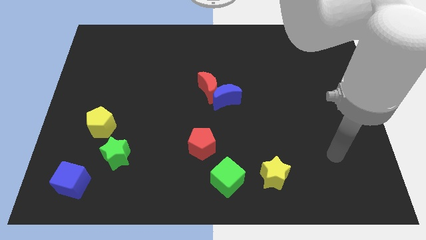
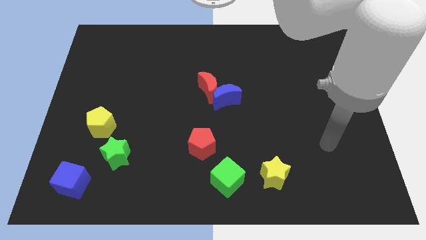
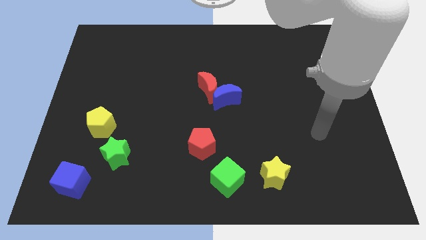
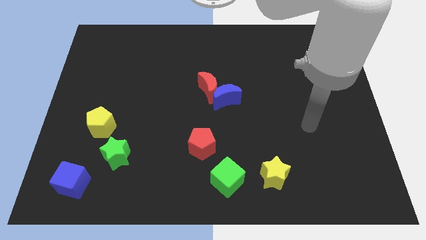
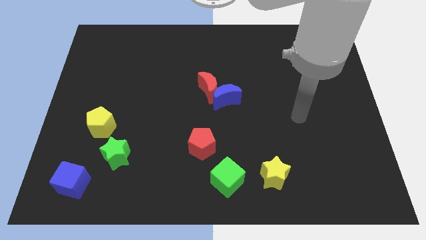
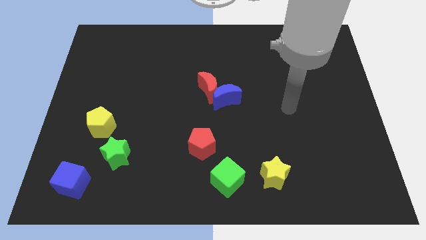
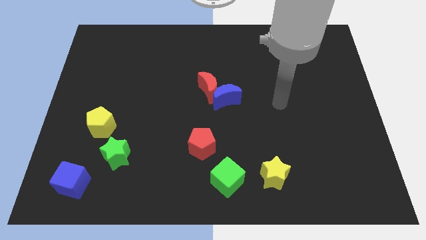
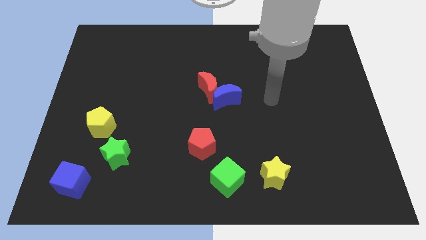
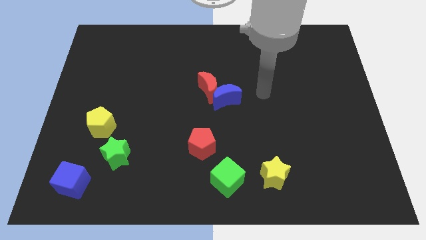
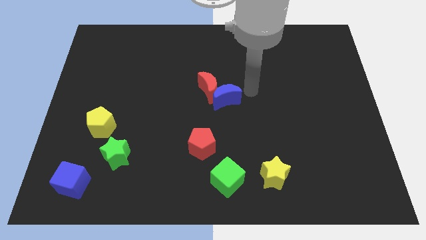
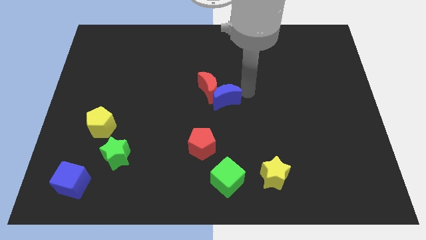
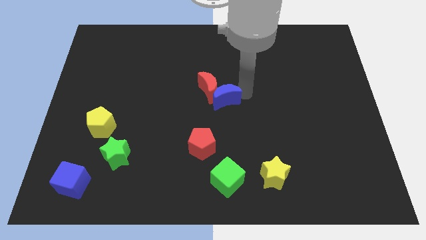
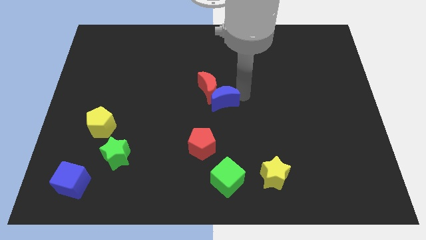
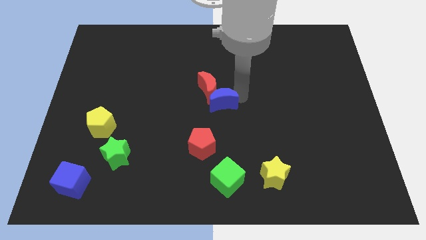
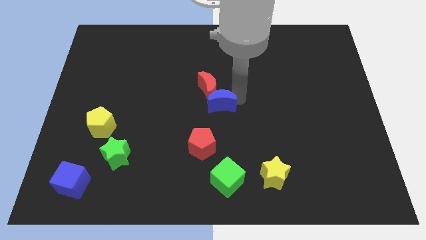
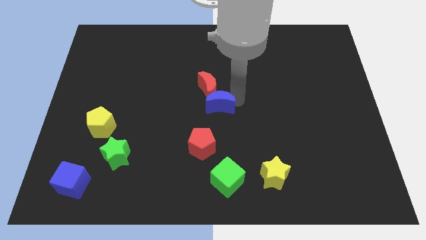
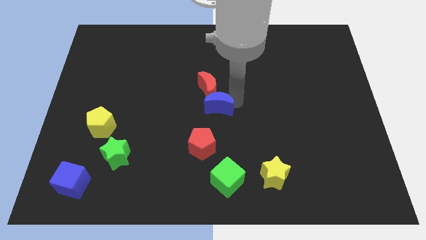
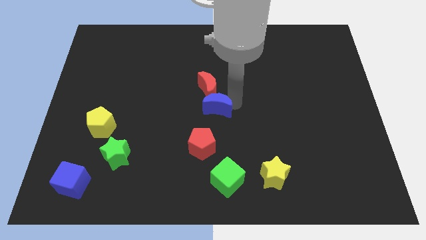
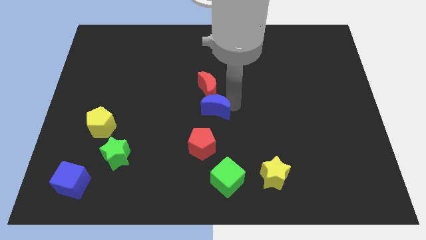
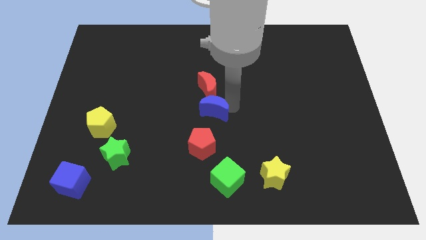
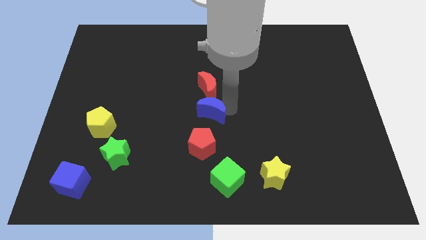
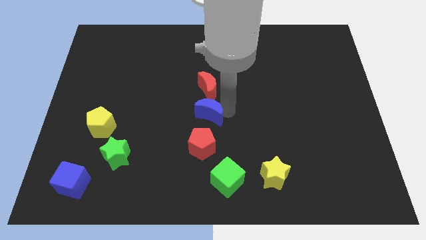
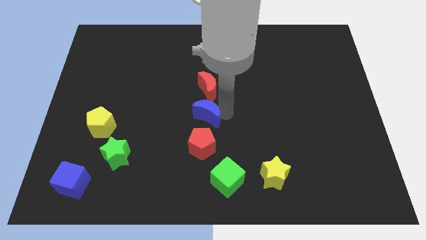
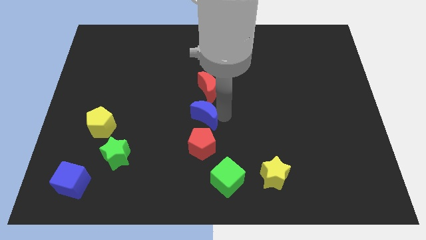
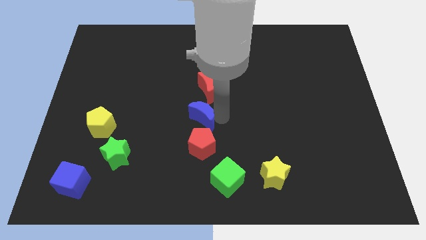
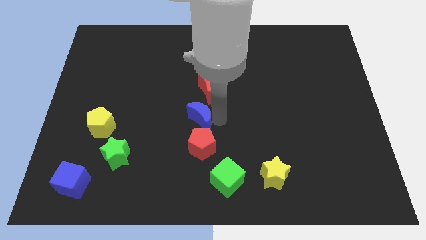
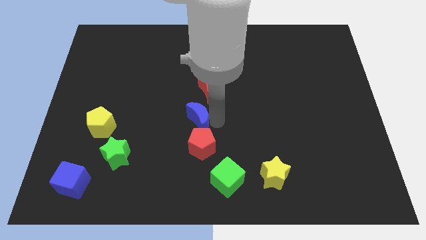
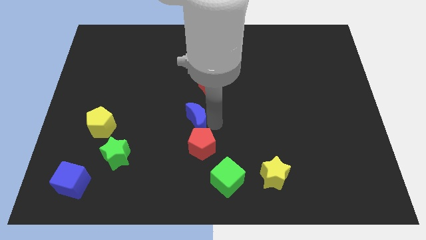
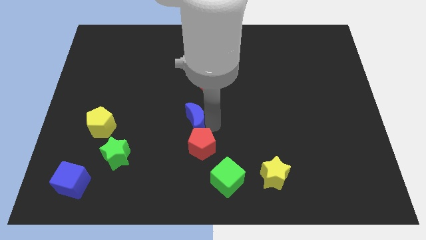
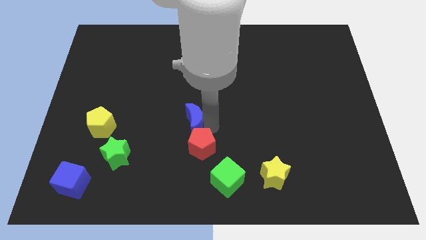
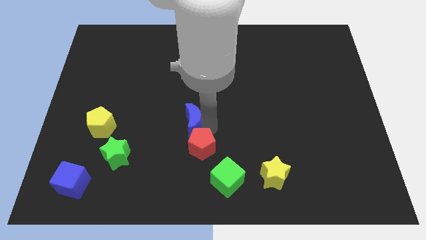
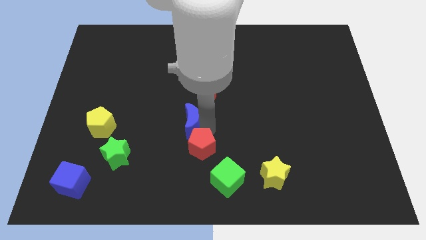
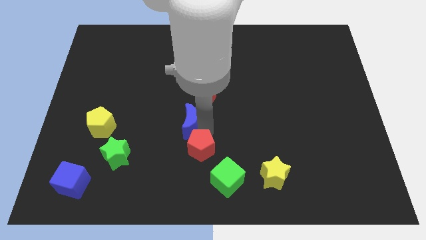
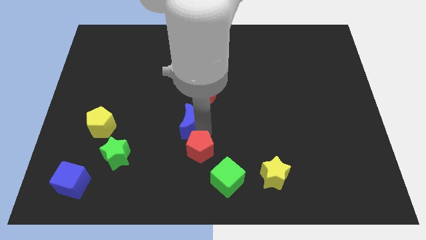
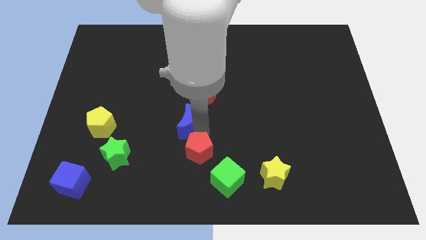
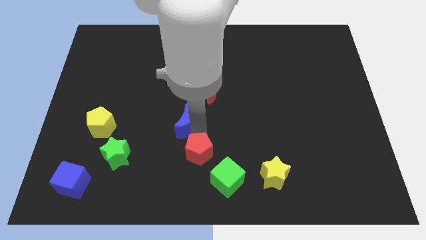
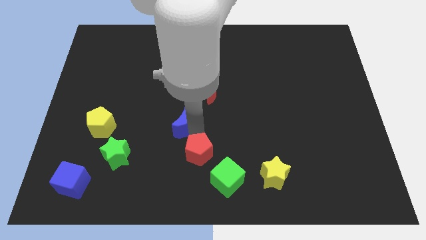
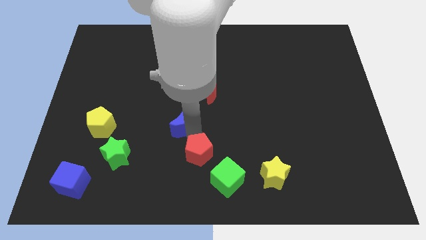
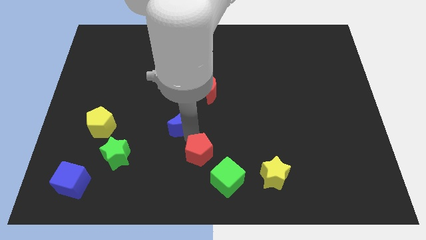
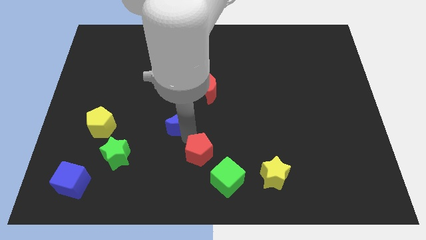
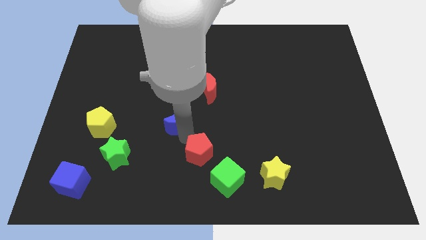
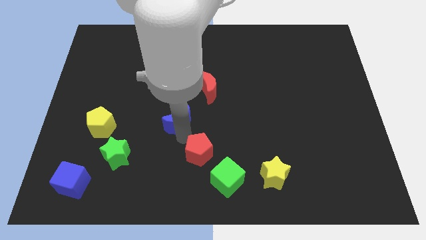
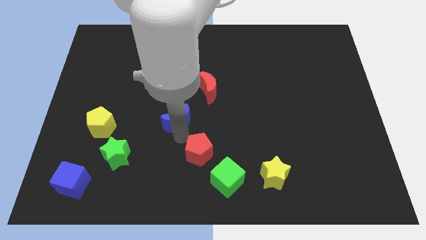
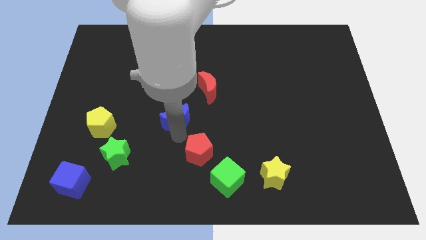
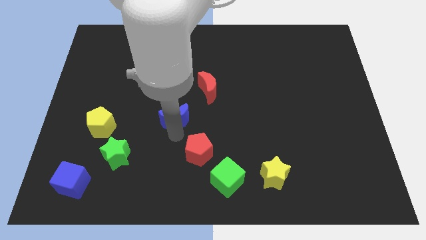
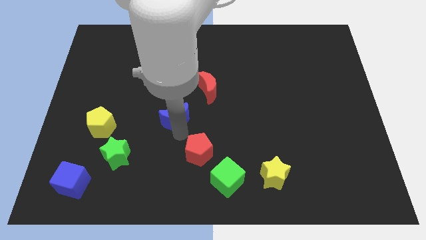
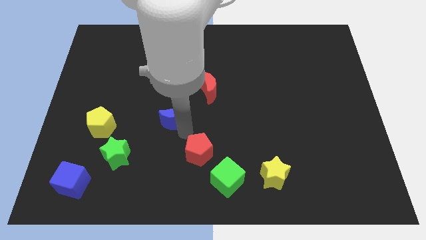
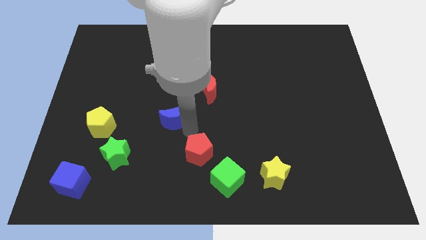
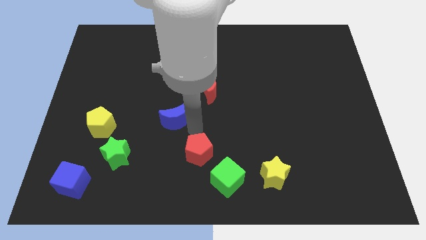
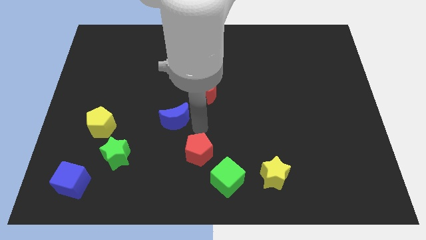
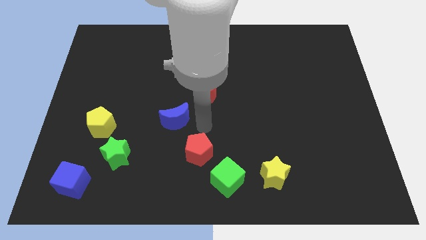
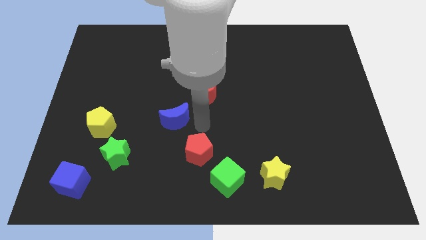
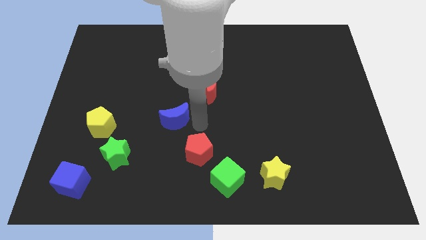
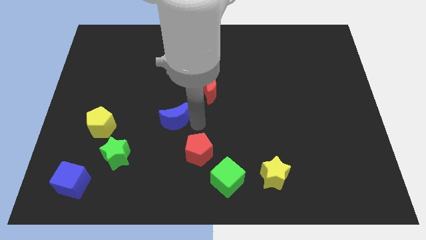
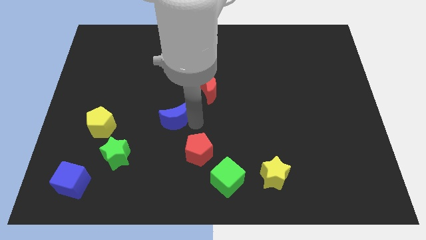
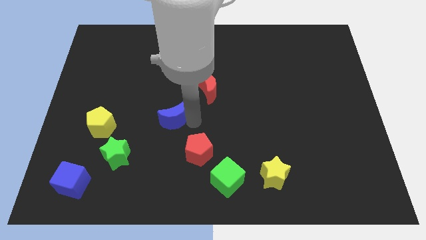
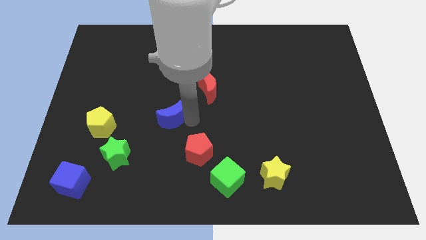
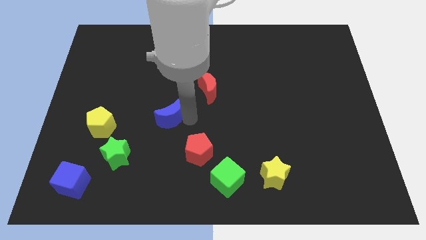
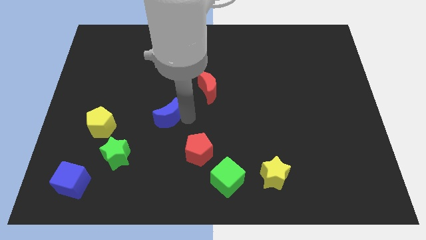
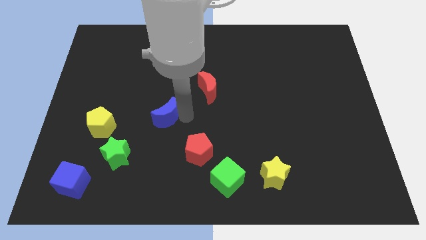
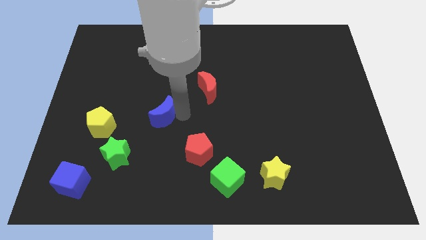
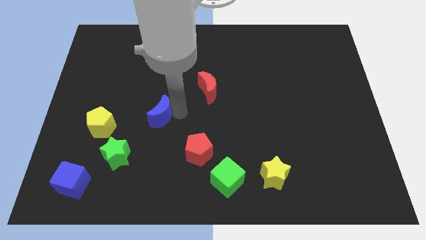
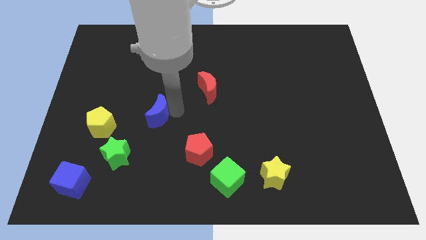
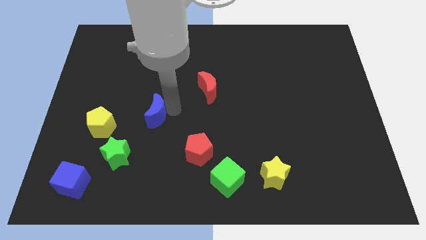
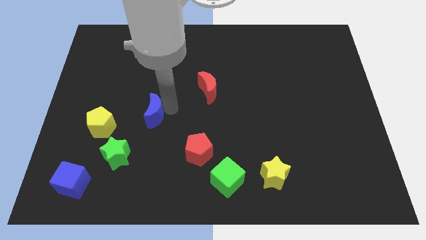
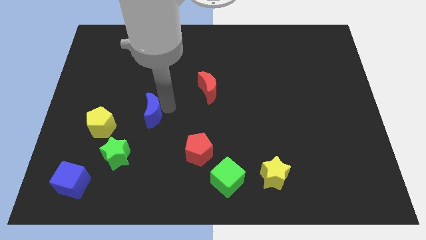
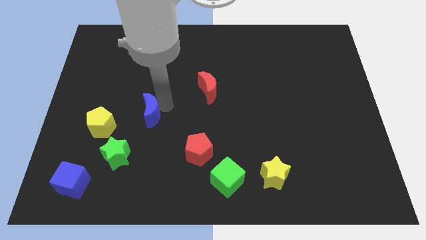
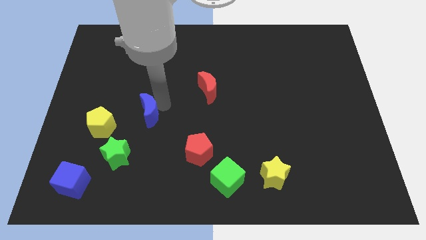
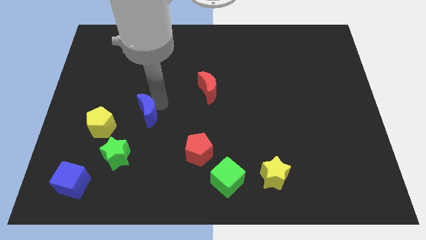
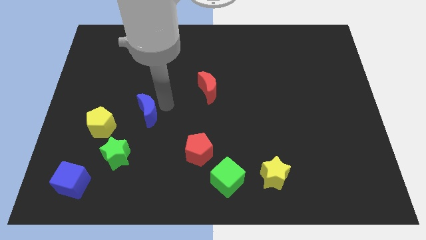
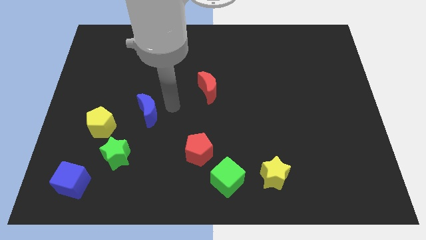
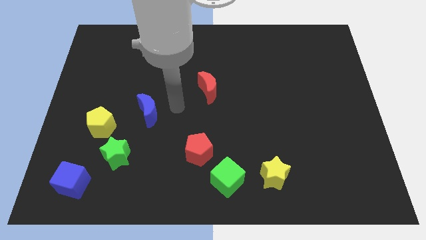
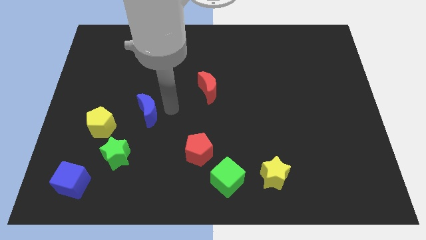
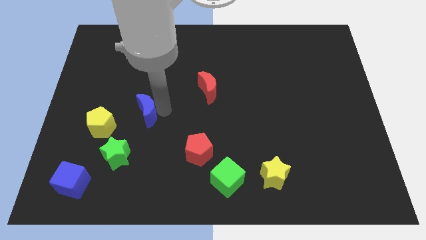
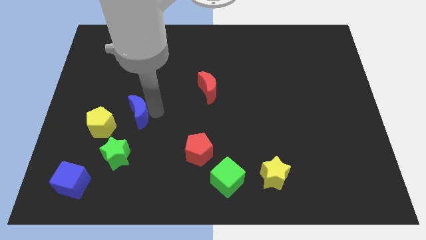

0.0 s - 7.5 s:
move the blue moon above the green star
